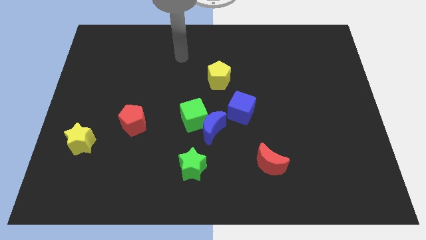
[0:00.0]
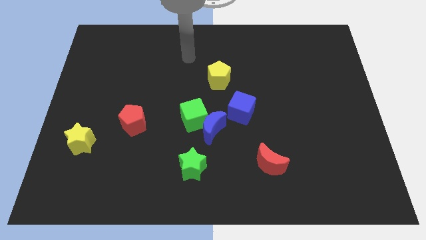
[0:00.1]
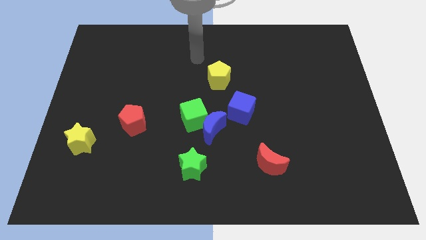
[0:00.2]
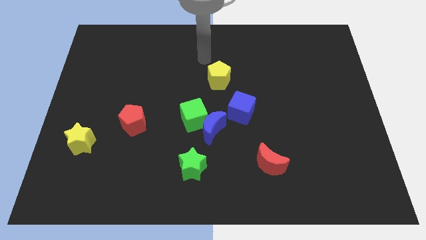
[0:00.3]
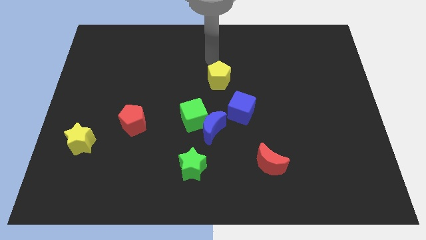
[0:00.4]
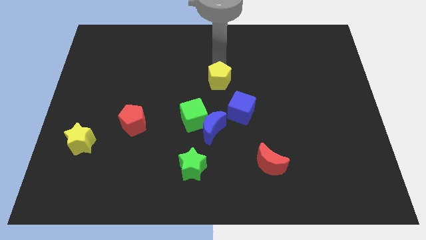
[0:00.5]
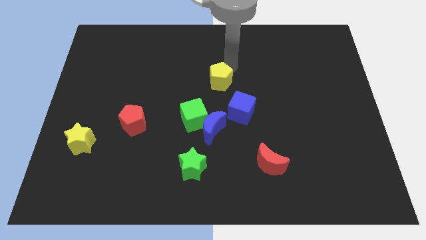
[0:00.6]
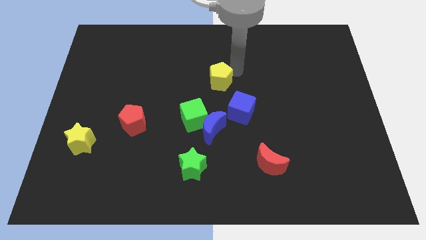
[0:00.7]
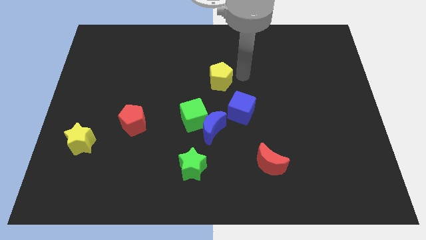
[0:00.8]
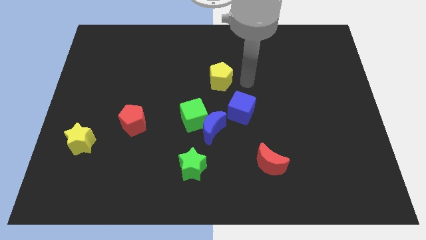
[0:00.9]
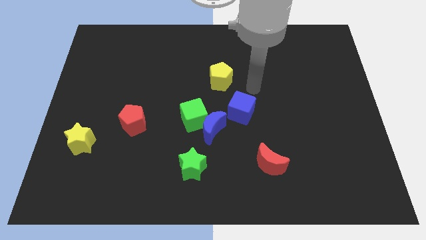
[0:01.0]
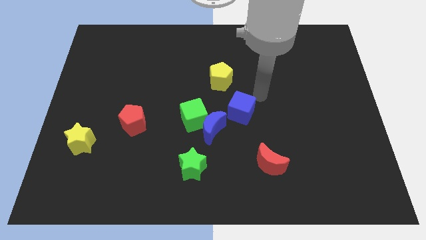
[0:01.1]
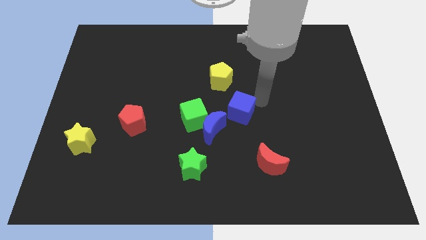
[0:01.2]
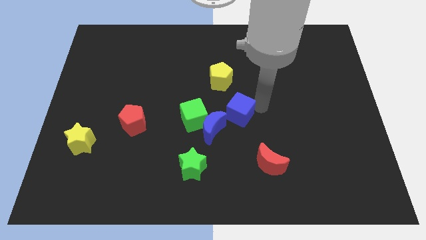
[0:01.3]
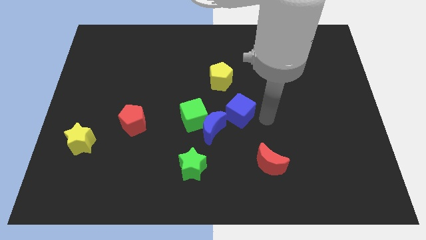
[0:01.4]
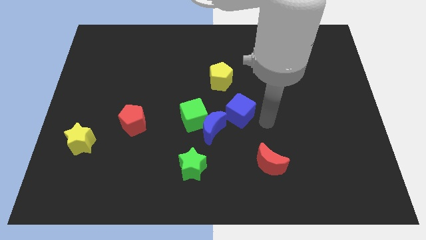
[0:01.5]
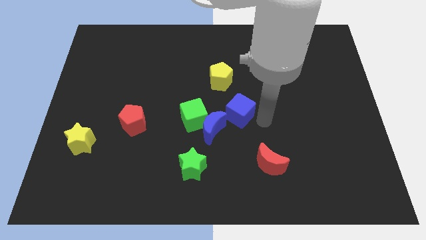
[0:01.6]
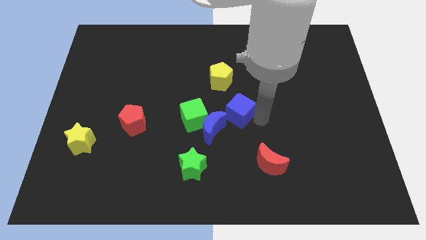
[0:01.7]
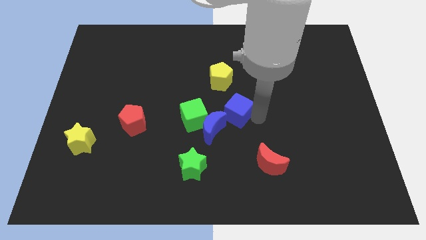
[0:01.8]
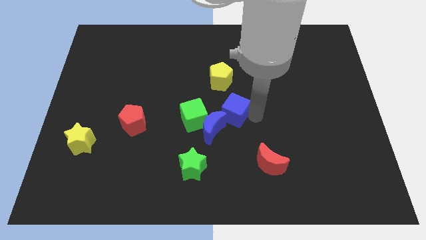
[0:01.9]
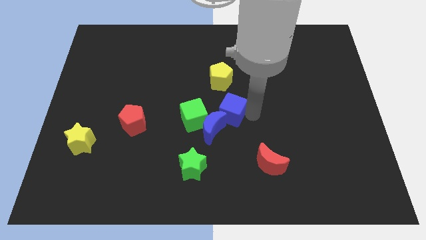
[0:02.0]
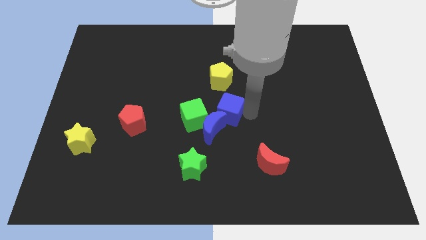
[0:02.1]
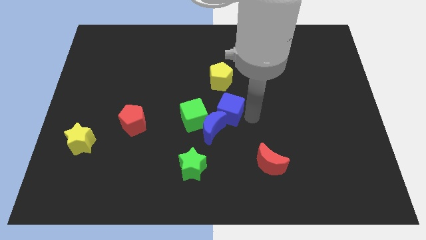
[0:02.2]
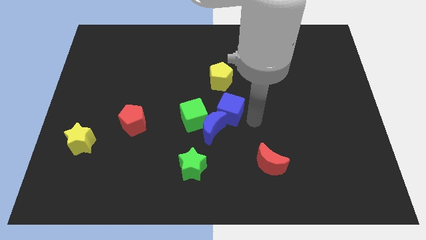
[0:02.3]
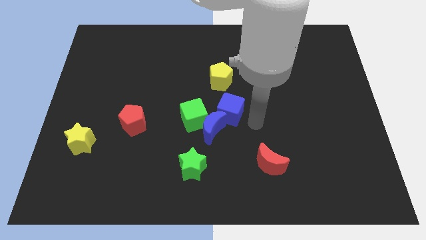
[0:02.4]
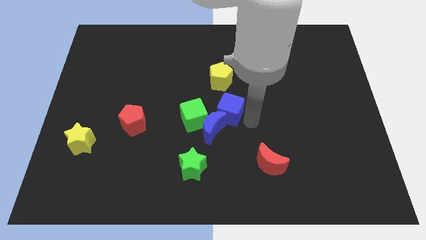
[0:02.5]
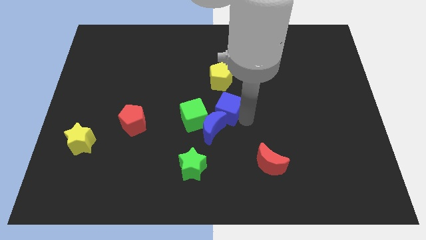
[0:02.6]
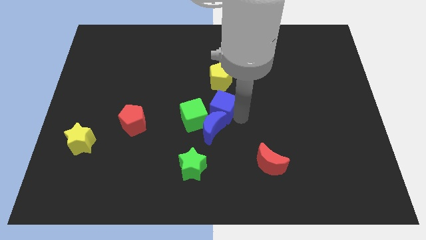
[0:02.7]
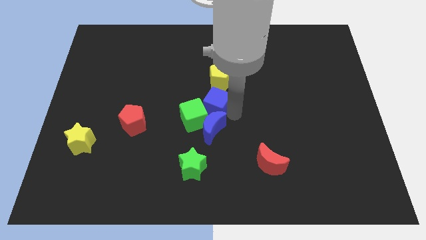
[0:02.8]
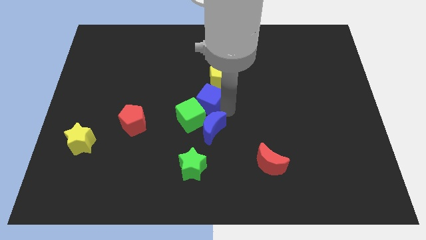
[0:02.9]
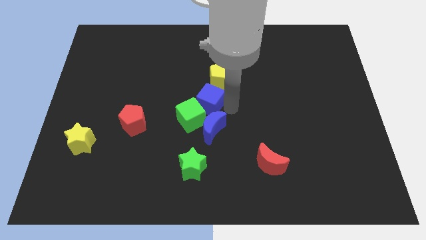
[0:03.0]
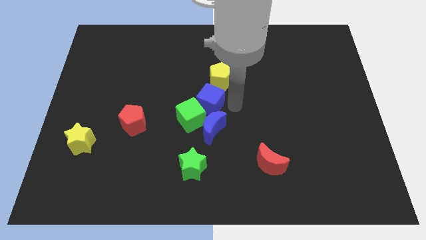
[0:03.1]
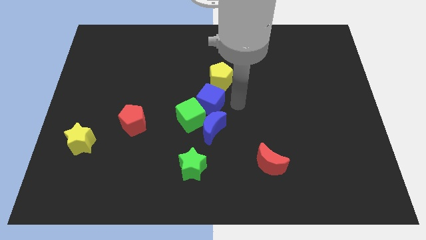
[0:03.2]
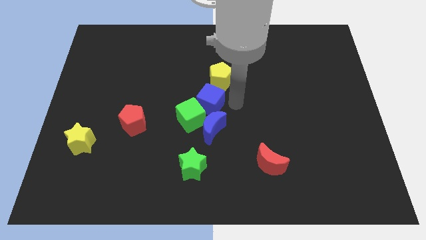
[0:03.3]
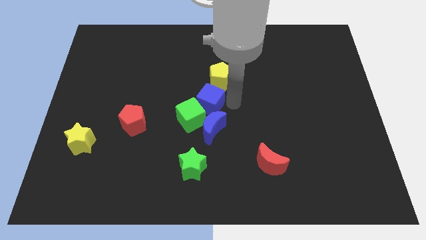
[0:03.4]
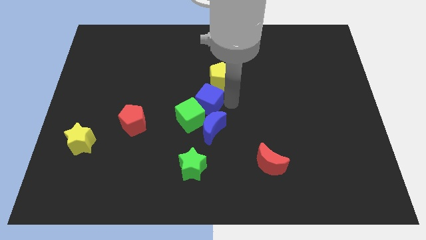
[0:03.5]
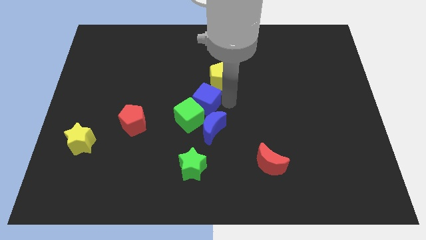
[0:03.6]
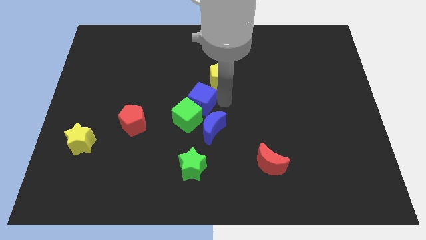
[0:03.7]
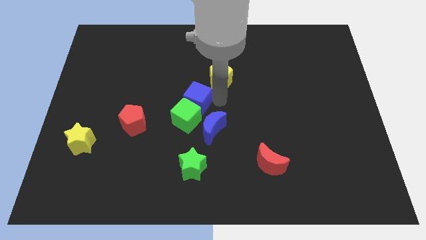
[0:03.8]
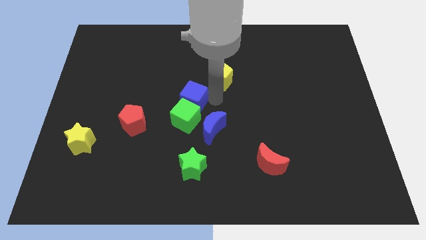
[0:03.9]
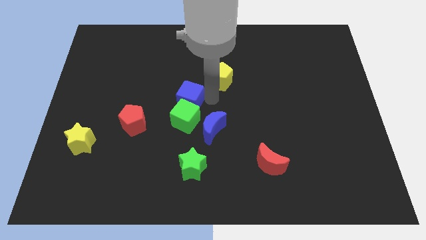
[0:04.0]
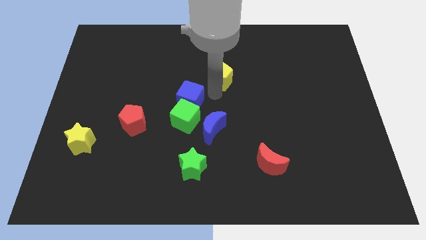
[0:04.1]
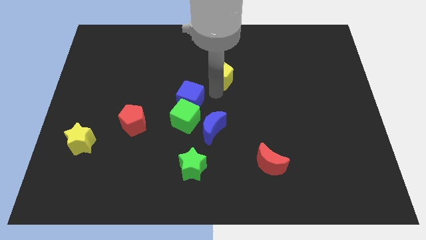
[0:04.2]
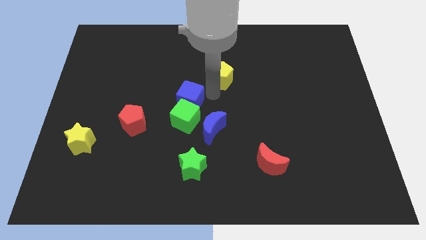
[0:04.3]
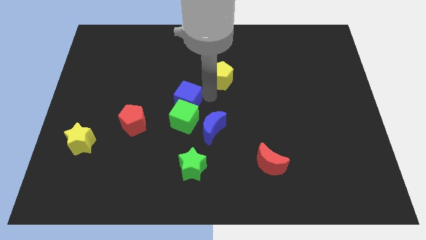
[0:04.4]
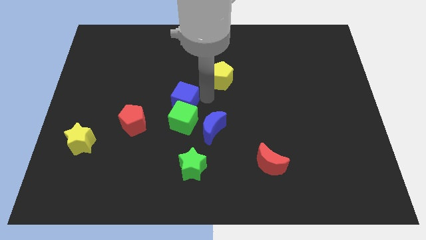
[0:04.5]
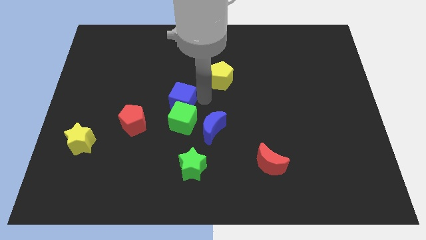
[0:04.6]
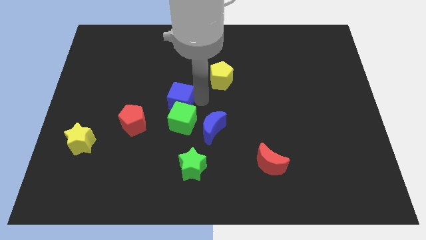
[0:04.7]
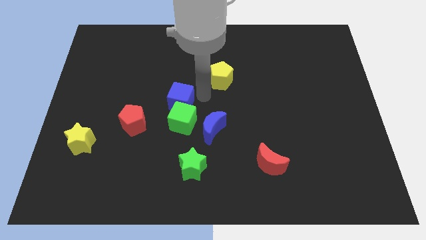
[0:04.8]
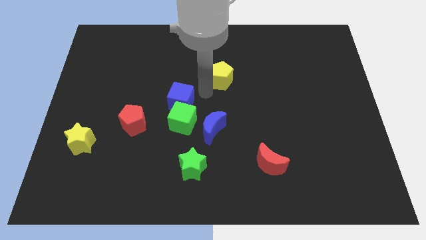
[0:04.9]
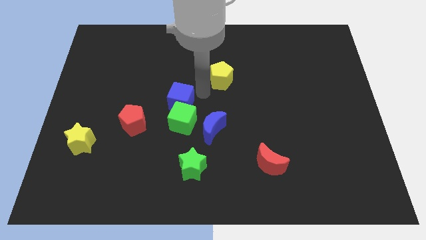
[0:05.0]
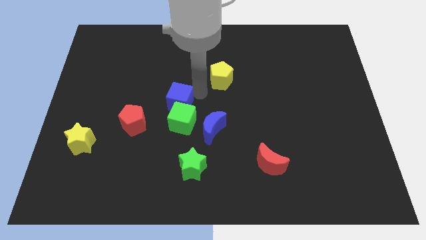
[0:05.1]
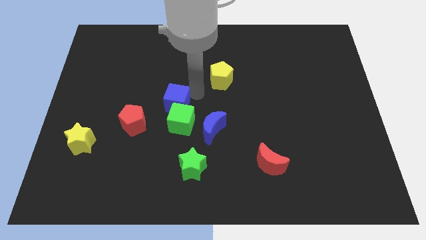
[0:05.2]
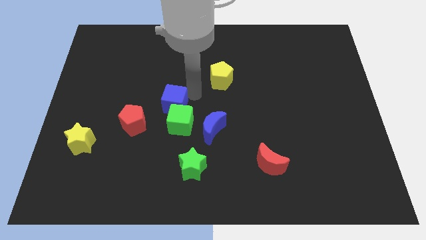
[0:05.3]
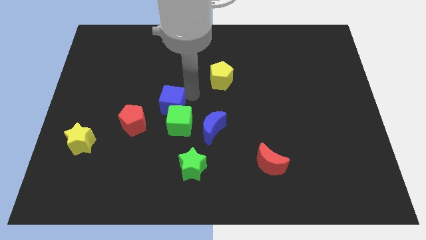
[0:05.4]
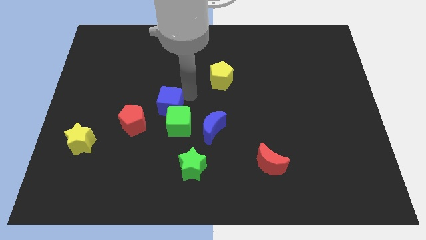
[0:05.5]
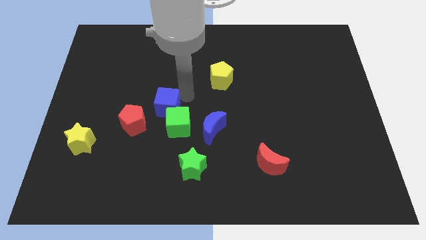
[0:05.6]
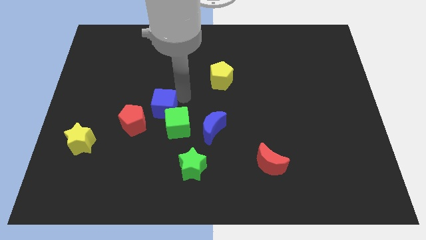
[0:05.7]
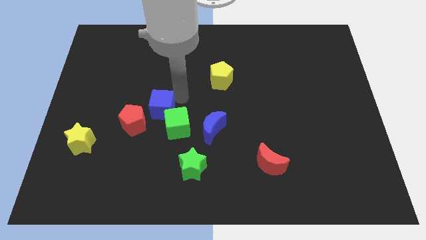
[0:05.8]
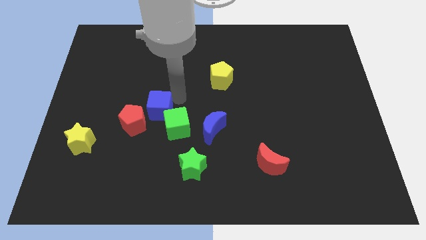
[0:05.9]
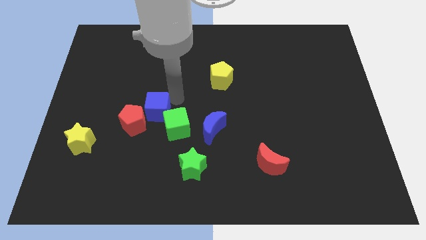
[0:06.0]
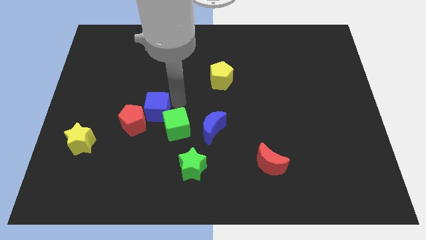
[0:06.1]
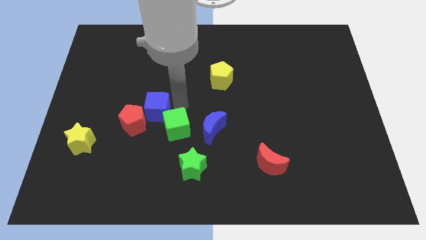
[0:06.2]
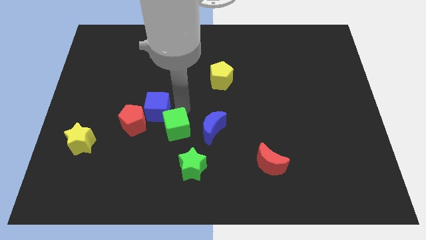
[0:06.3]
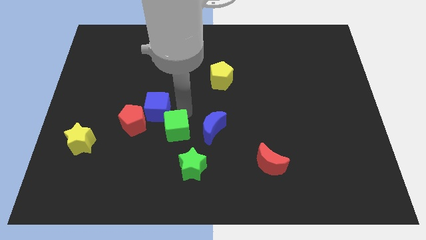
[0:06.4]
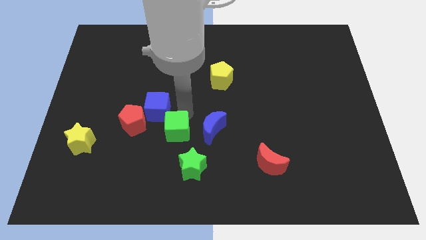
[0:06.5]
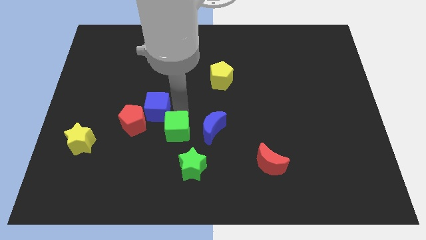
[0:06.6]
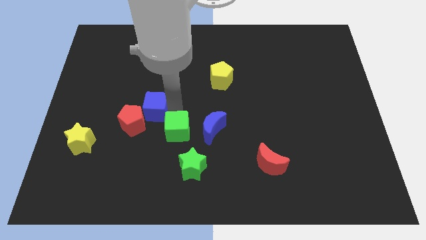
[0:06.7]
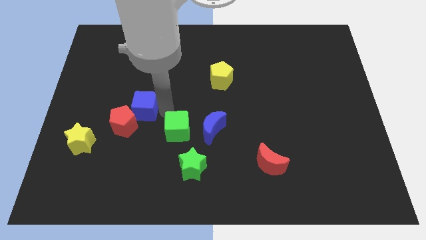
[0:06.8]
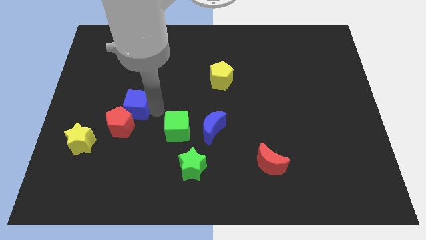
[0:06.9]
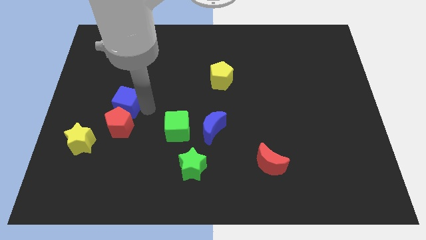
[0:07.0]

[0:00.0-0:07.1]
push the blue cube to the top left side of the red pentagon
